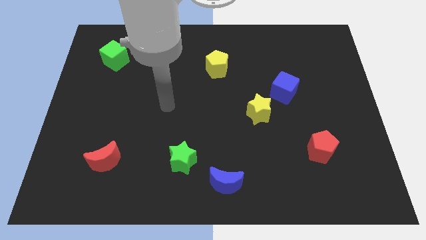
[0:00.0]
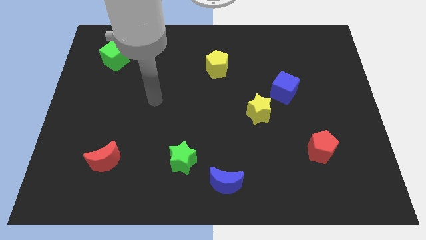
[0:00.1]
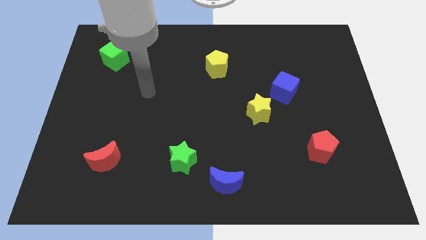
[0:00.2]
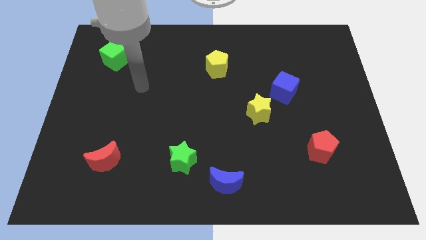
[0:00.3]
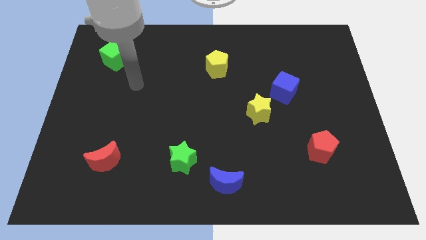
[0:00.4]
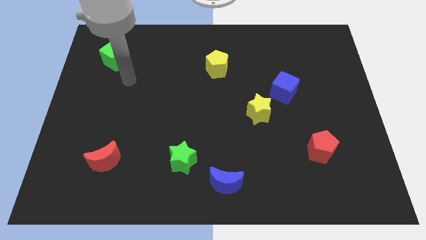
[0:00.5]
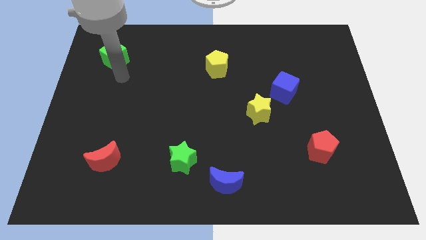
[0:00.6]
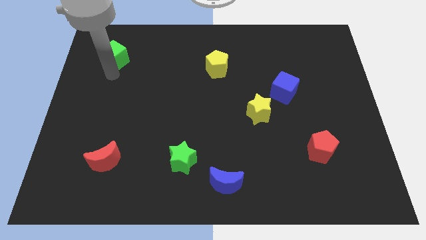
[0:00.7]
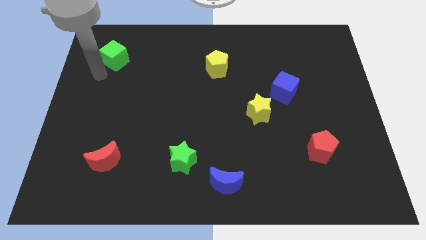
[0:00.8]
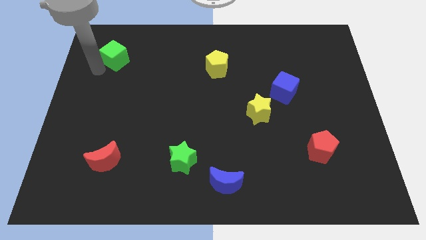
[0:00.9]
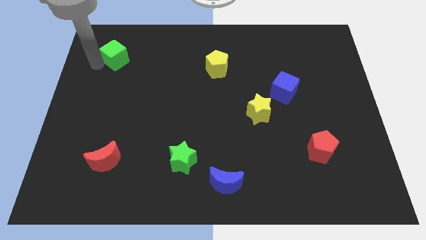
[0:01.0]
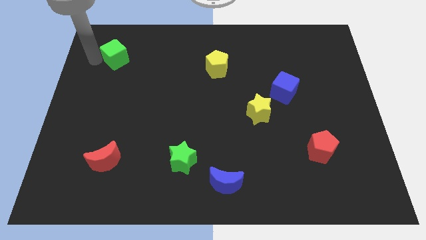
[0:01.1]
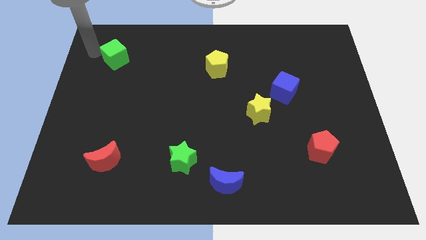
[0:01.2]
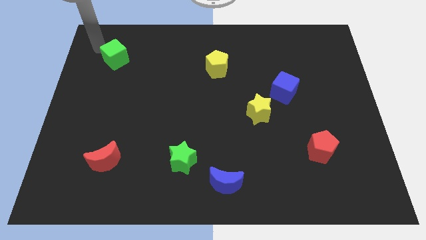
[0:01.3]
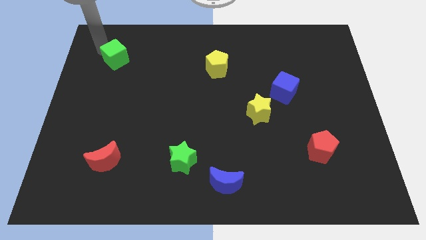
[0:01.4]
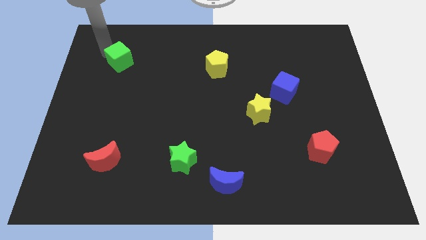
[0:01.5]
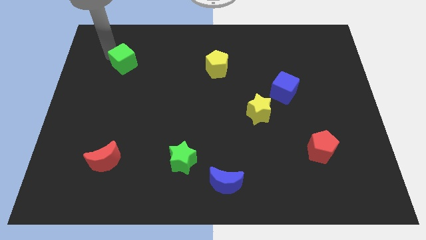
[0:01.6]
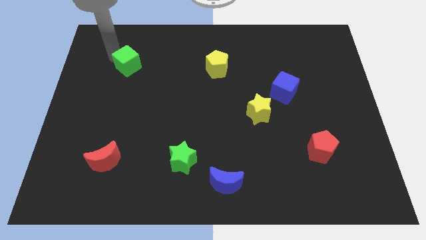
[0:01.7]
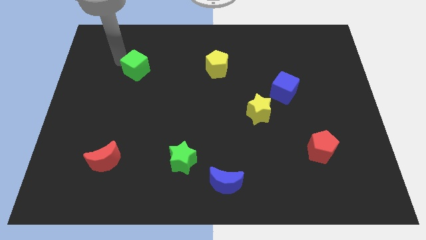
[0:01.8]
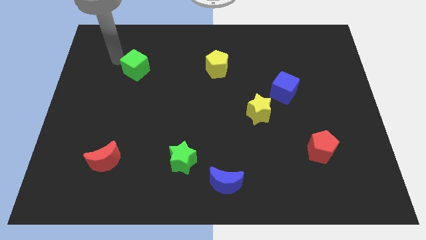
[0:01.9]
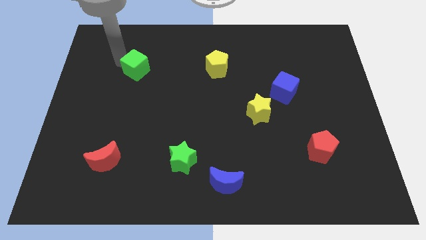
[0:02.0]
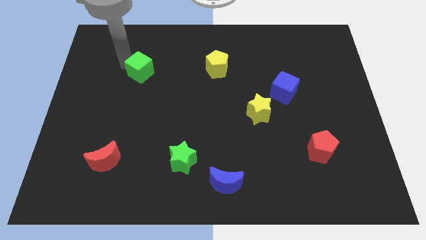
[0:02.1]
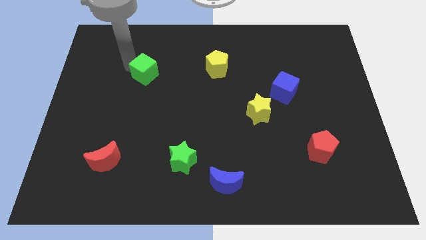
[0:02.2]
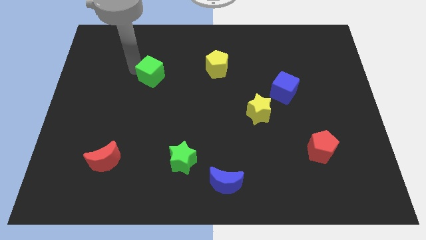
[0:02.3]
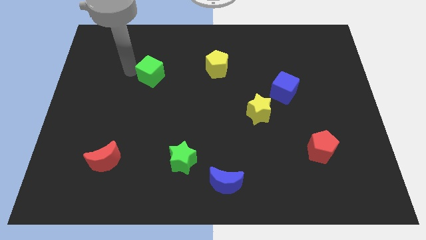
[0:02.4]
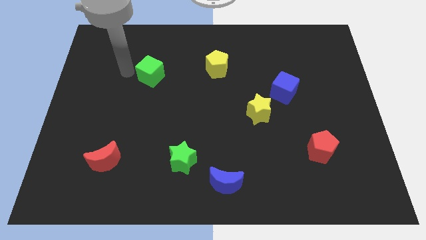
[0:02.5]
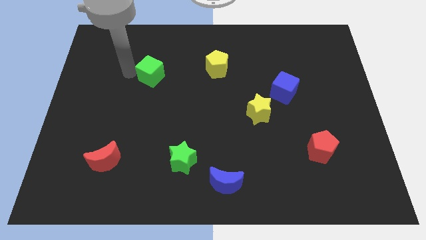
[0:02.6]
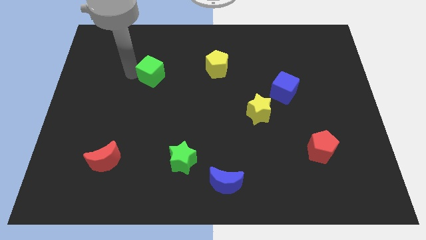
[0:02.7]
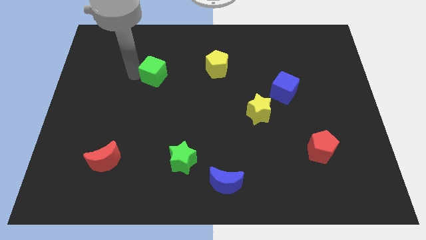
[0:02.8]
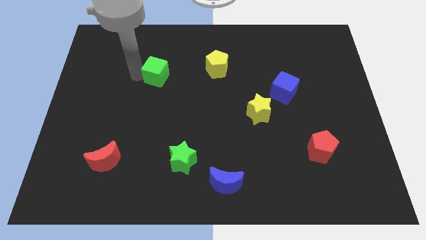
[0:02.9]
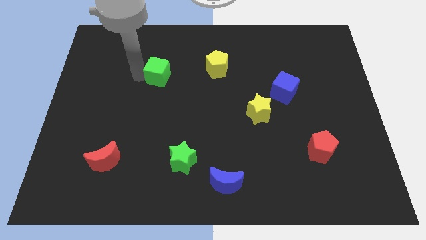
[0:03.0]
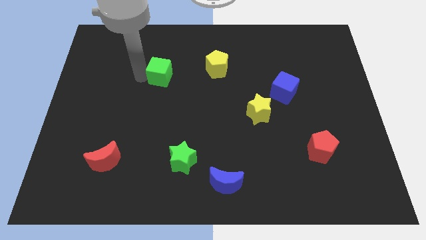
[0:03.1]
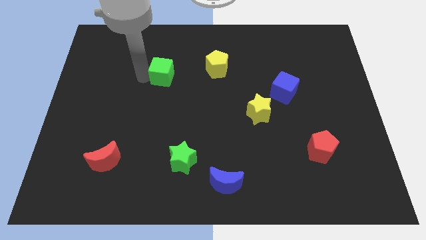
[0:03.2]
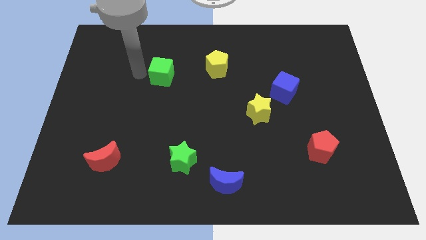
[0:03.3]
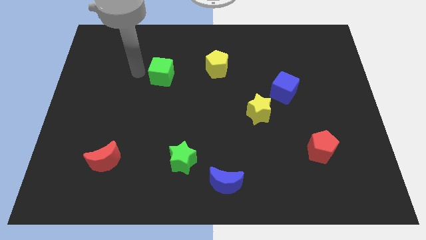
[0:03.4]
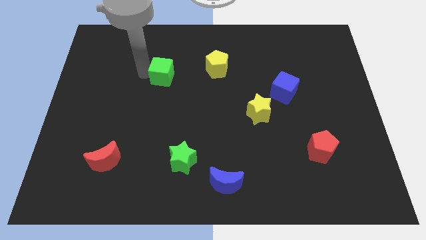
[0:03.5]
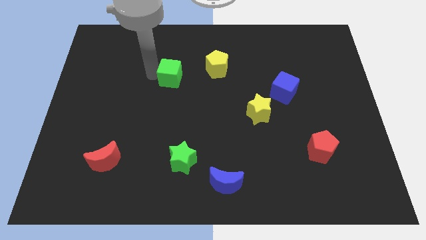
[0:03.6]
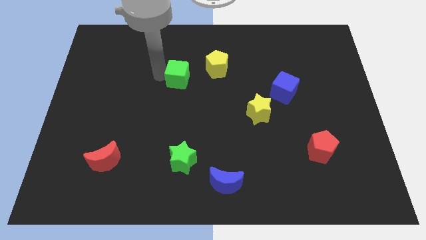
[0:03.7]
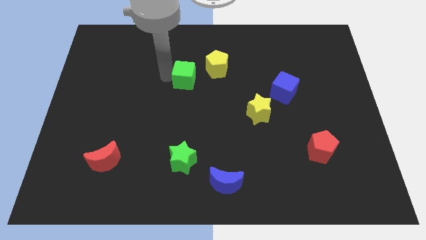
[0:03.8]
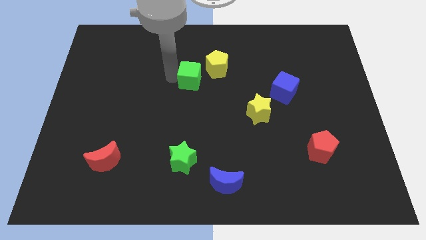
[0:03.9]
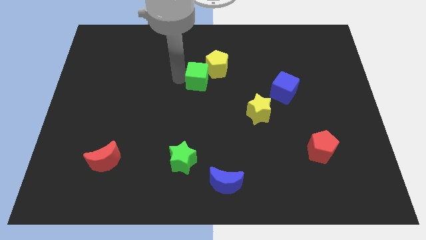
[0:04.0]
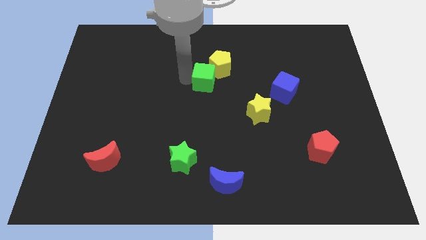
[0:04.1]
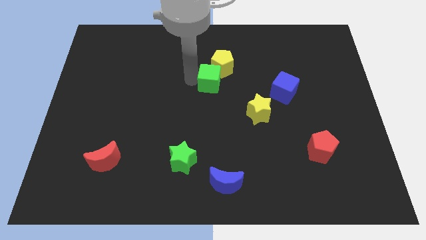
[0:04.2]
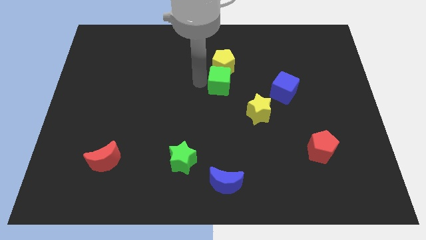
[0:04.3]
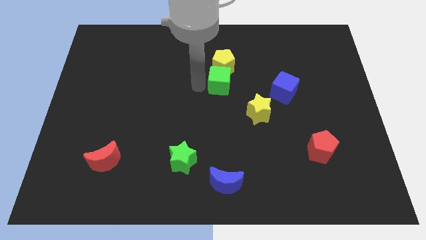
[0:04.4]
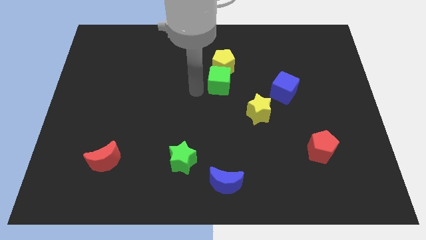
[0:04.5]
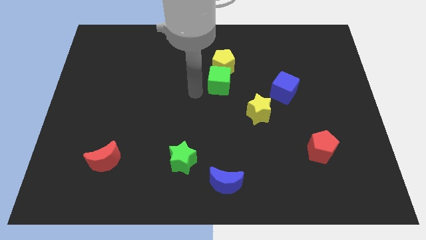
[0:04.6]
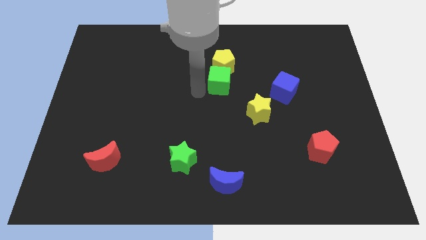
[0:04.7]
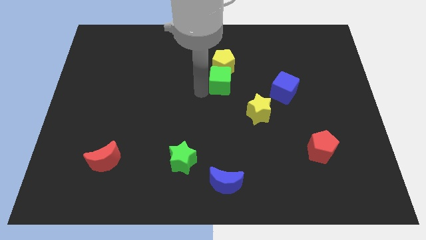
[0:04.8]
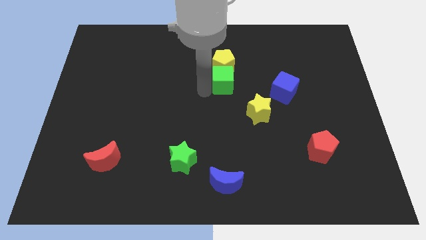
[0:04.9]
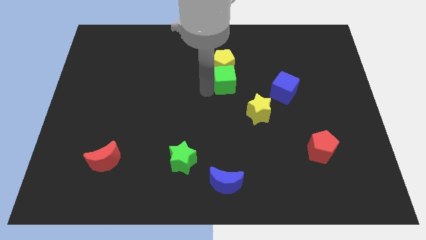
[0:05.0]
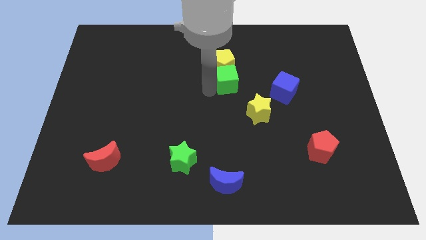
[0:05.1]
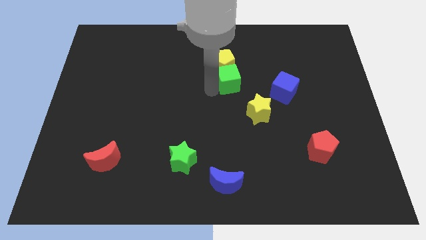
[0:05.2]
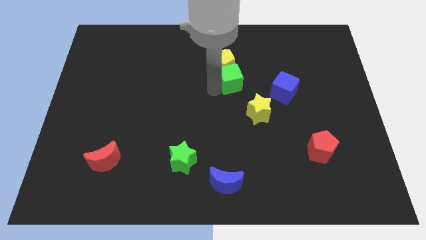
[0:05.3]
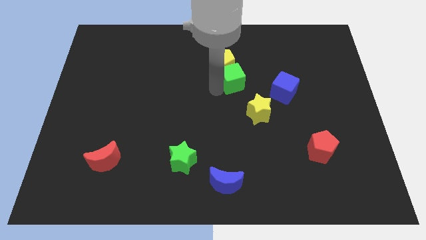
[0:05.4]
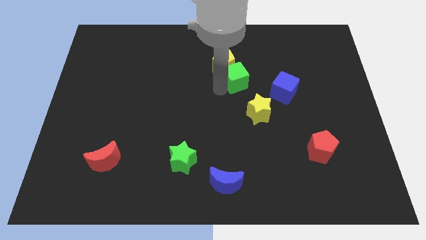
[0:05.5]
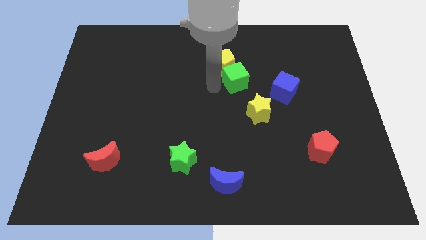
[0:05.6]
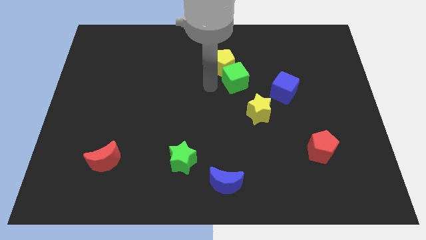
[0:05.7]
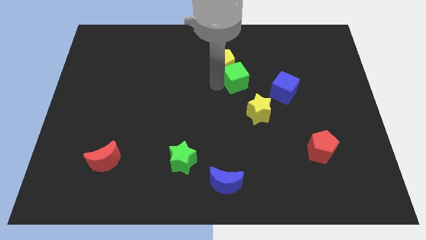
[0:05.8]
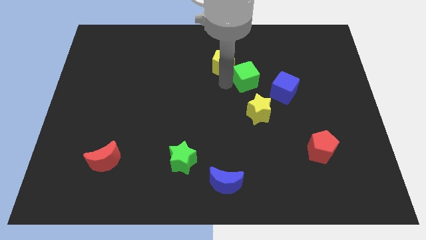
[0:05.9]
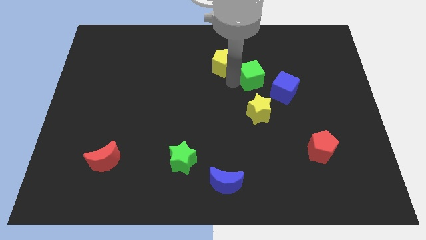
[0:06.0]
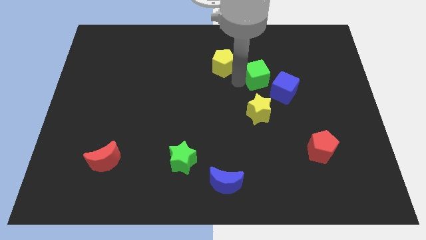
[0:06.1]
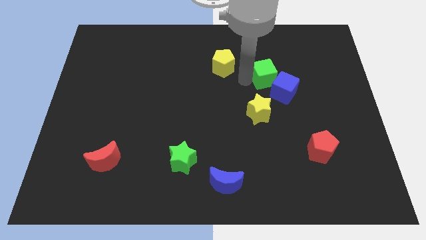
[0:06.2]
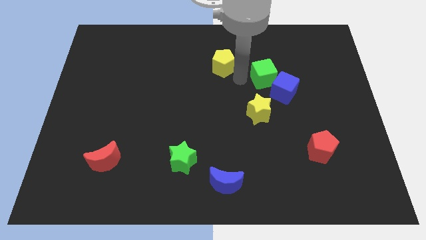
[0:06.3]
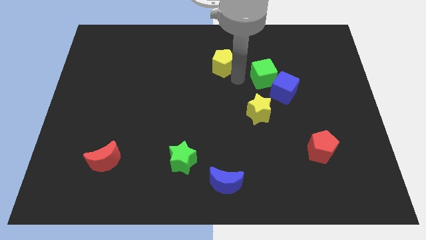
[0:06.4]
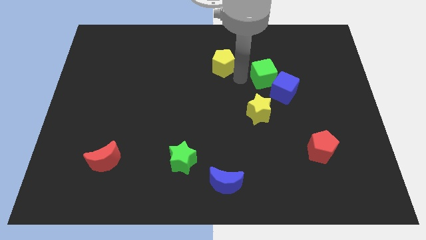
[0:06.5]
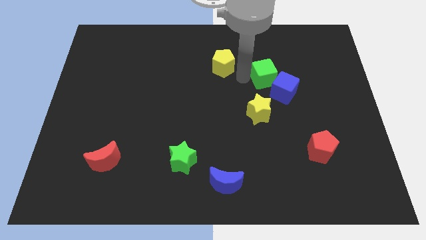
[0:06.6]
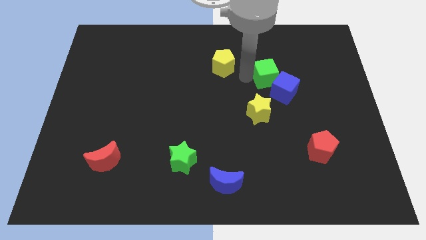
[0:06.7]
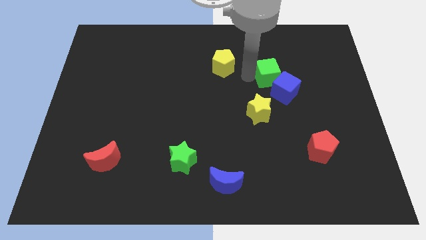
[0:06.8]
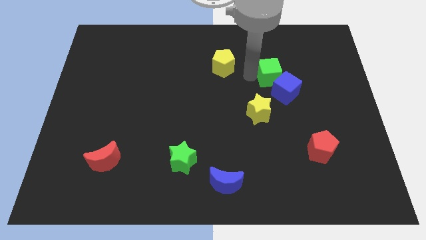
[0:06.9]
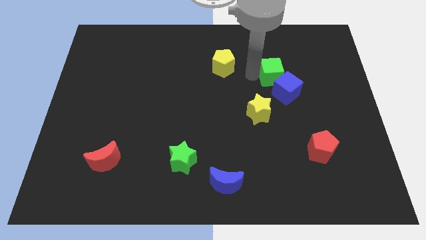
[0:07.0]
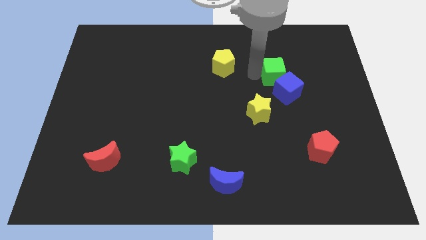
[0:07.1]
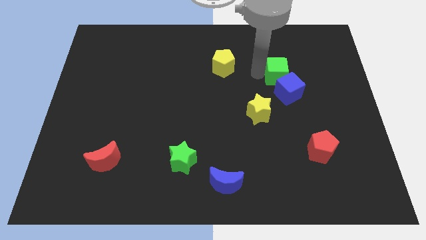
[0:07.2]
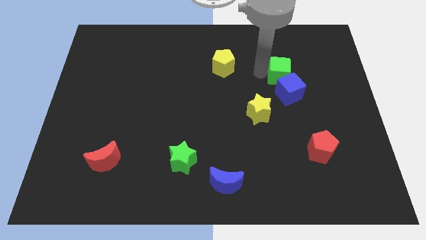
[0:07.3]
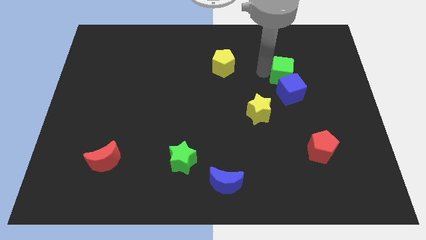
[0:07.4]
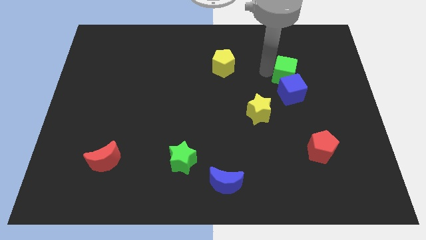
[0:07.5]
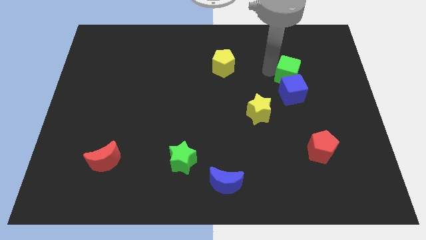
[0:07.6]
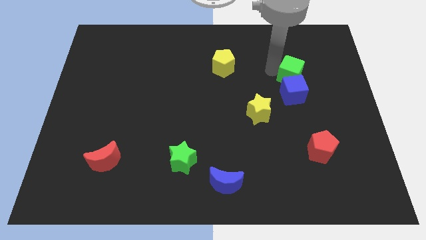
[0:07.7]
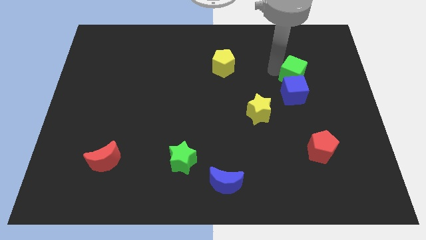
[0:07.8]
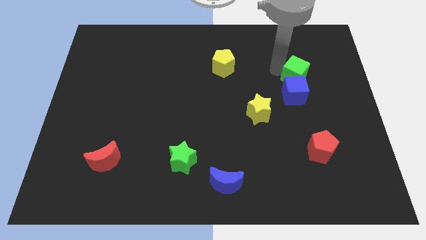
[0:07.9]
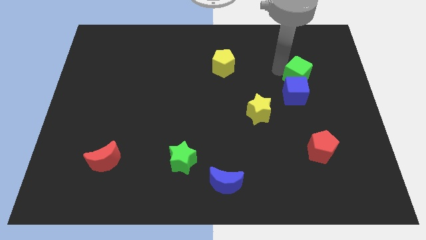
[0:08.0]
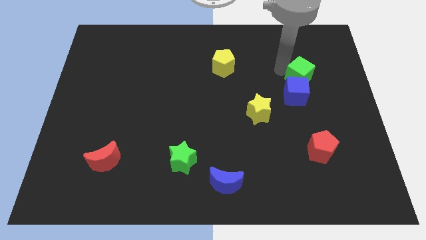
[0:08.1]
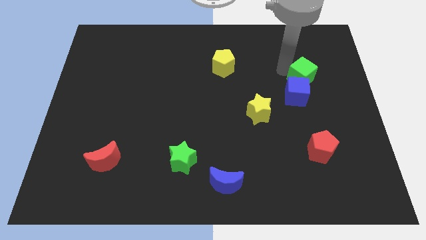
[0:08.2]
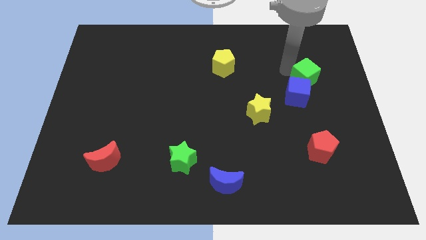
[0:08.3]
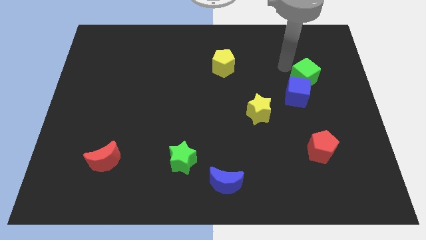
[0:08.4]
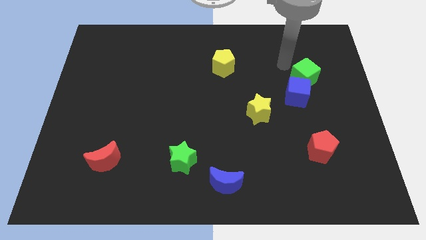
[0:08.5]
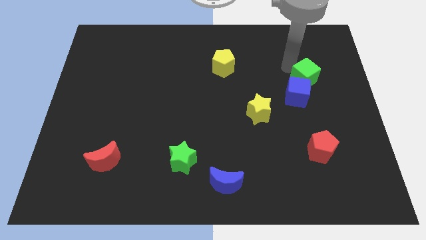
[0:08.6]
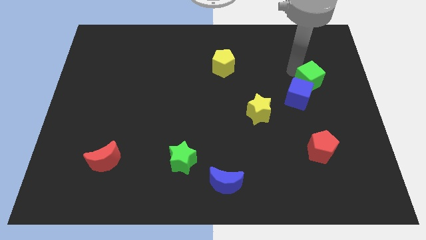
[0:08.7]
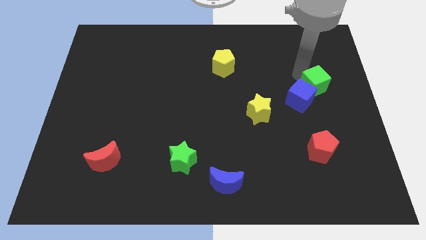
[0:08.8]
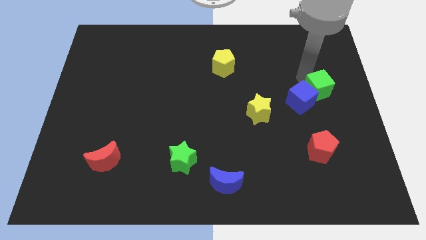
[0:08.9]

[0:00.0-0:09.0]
push the green cube to the right side of the board
